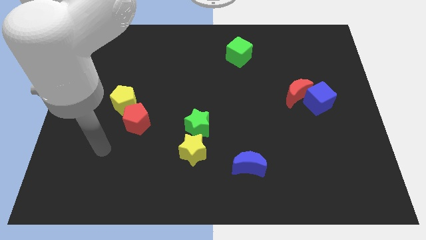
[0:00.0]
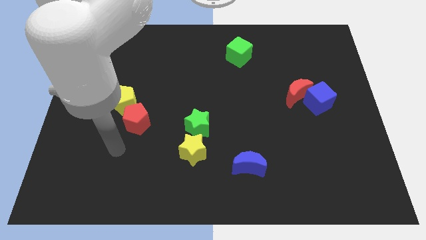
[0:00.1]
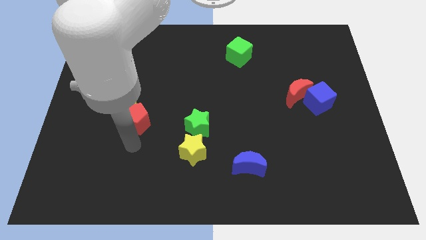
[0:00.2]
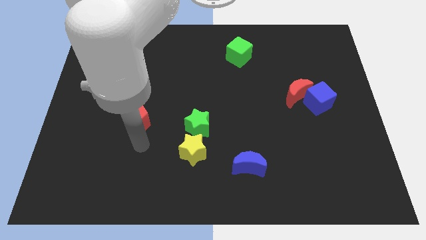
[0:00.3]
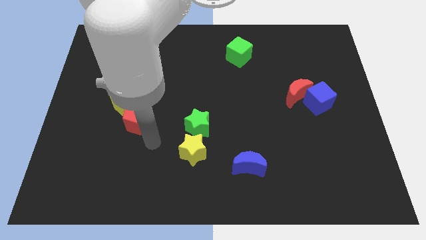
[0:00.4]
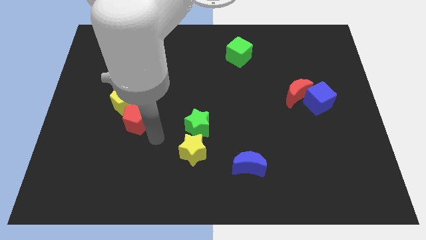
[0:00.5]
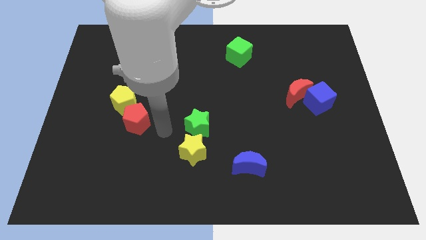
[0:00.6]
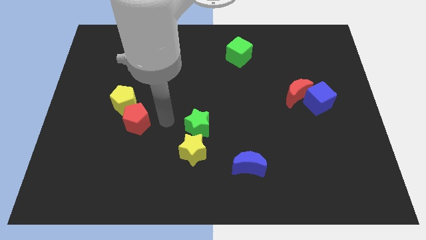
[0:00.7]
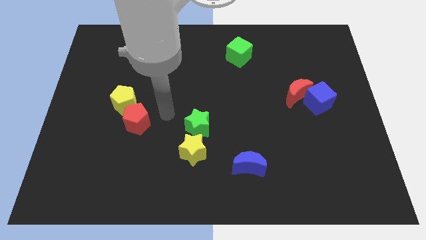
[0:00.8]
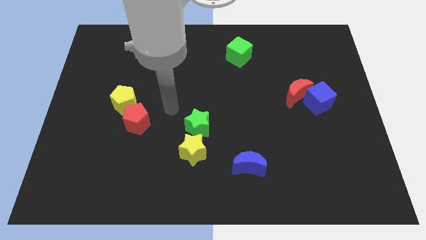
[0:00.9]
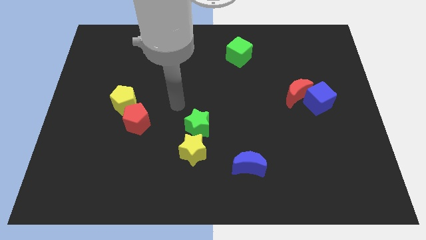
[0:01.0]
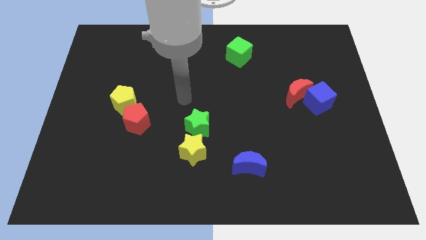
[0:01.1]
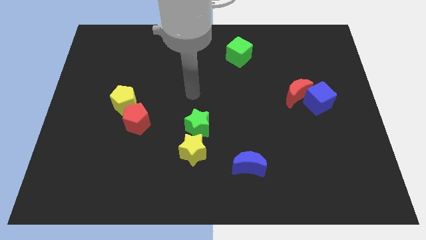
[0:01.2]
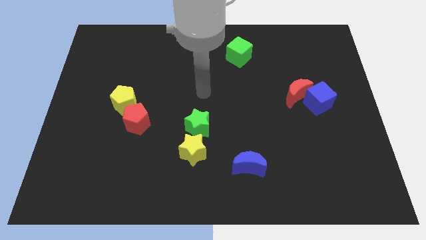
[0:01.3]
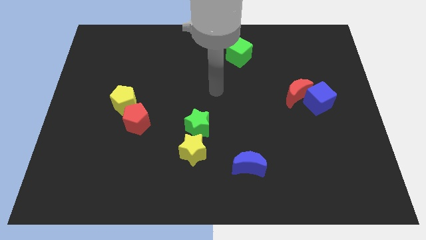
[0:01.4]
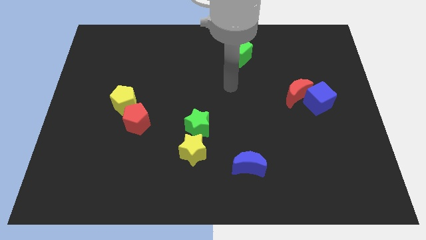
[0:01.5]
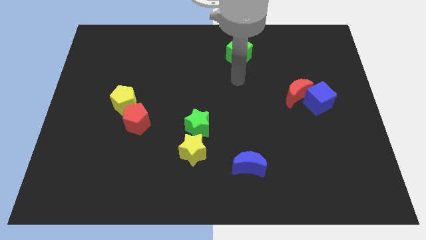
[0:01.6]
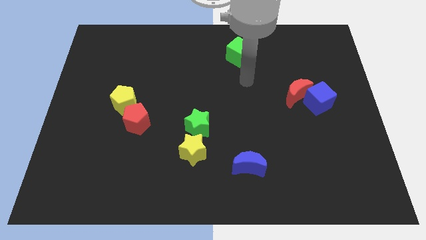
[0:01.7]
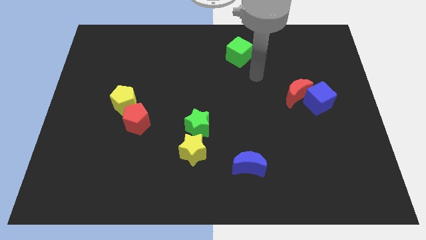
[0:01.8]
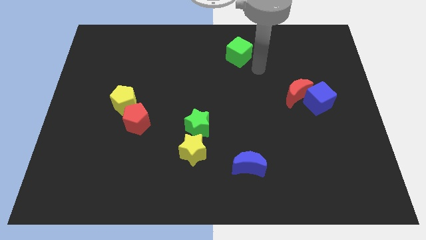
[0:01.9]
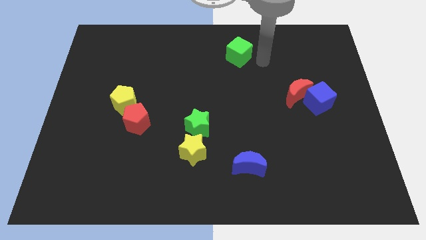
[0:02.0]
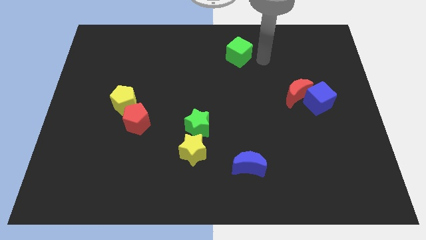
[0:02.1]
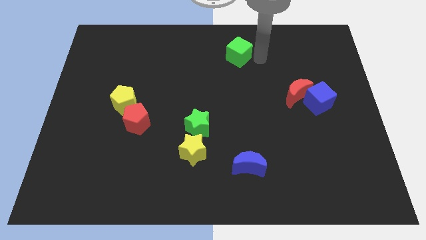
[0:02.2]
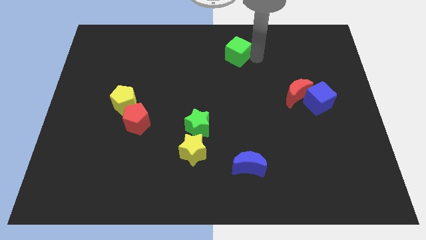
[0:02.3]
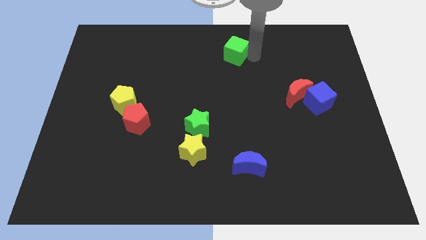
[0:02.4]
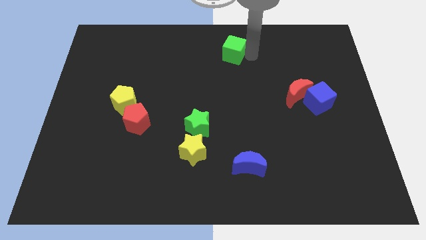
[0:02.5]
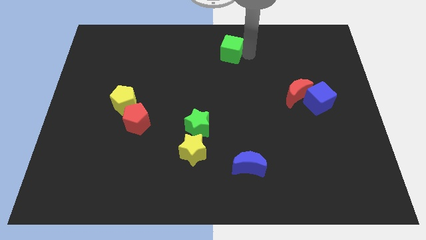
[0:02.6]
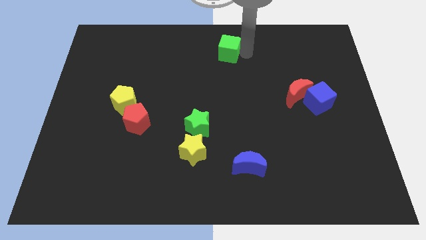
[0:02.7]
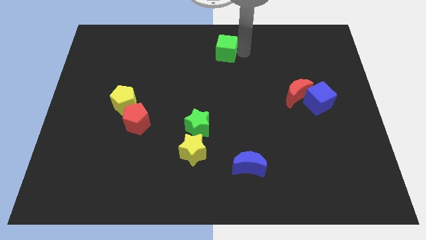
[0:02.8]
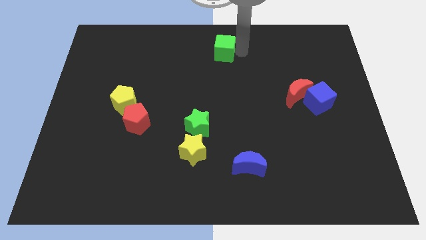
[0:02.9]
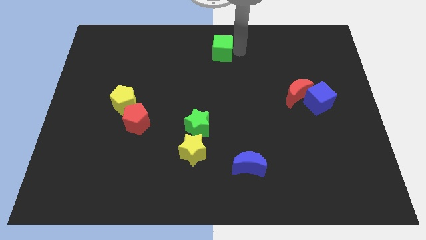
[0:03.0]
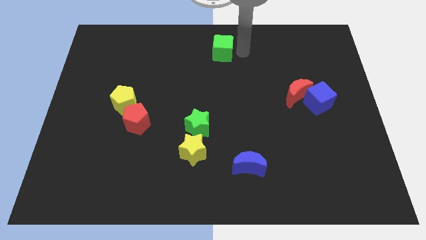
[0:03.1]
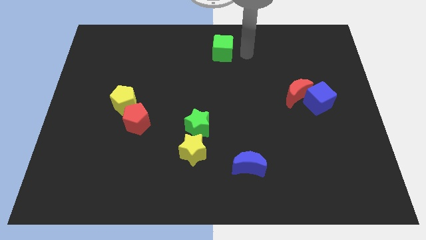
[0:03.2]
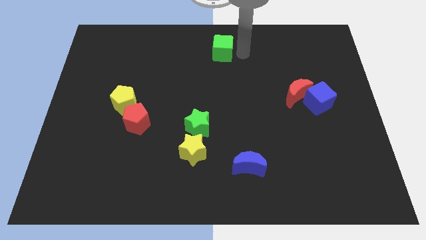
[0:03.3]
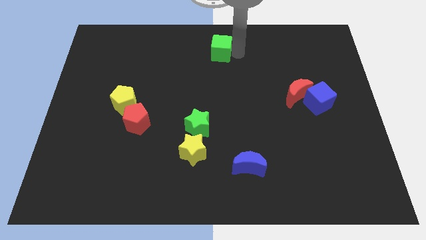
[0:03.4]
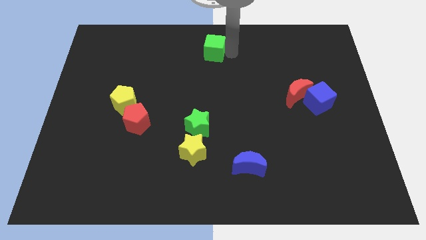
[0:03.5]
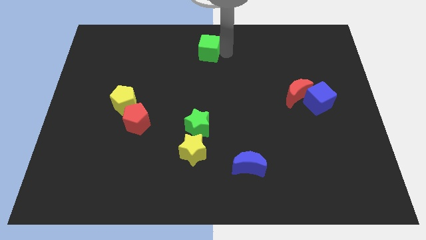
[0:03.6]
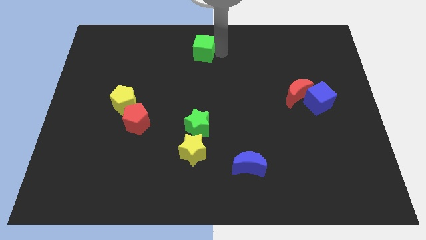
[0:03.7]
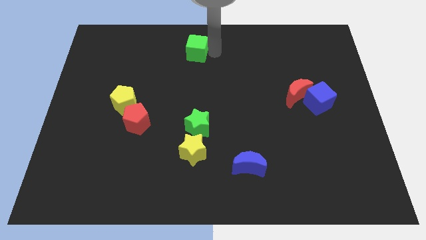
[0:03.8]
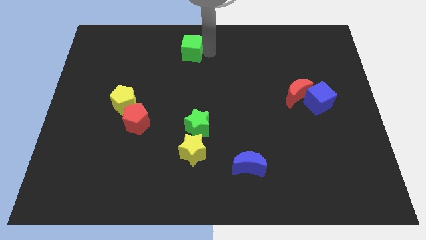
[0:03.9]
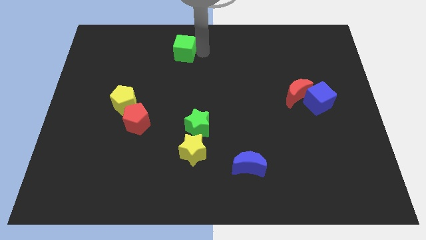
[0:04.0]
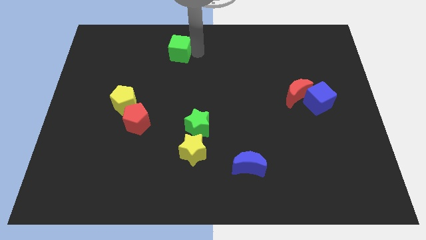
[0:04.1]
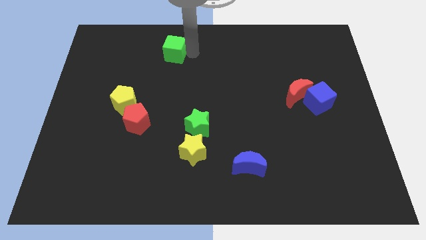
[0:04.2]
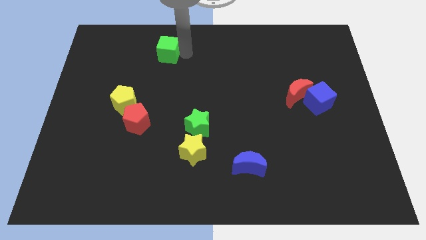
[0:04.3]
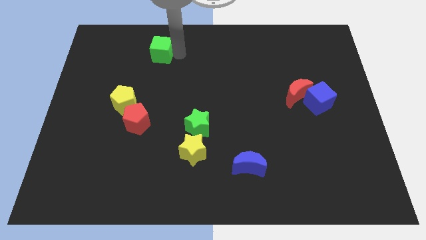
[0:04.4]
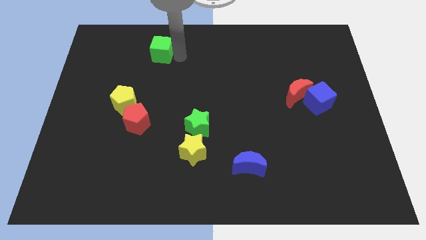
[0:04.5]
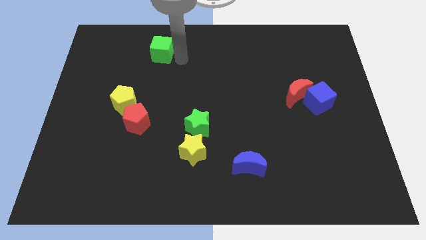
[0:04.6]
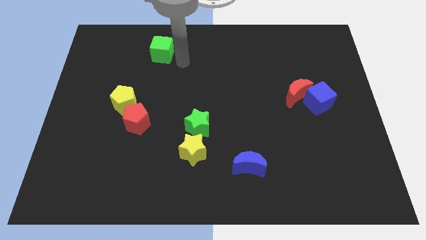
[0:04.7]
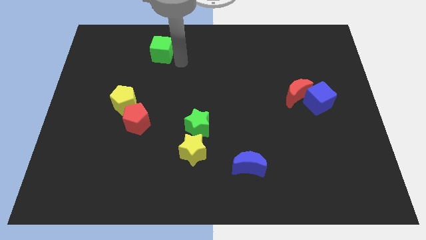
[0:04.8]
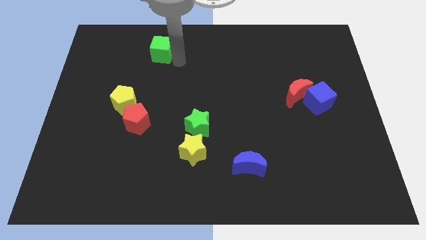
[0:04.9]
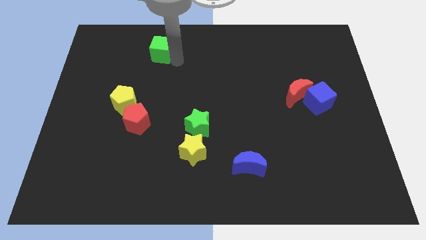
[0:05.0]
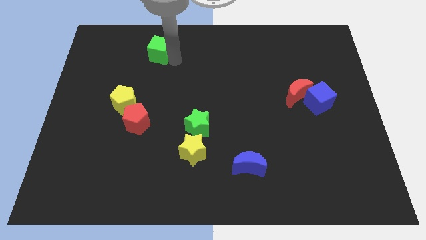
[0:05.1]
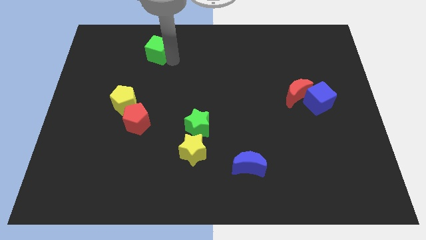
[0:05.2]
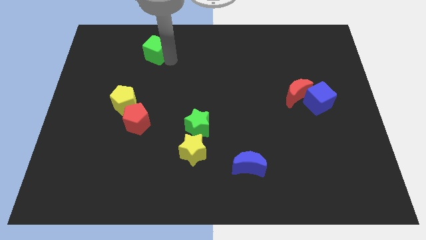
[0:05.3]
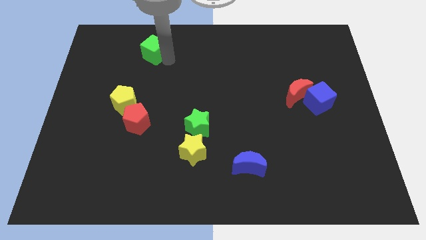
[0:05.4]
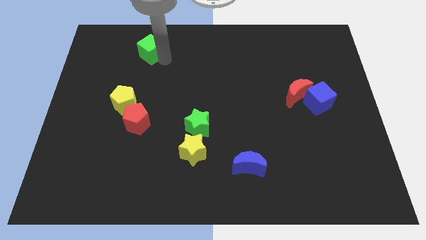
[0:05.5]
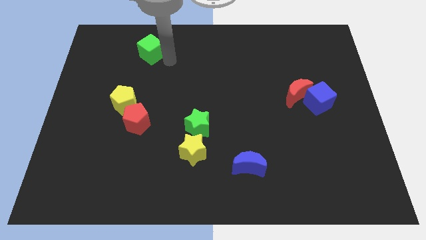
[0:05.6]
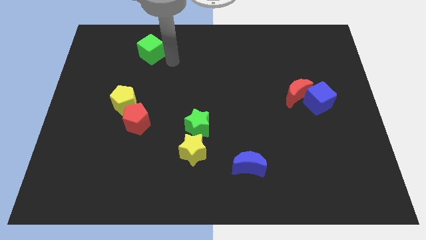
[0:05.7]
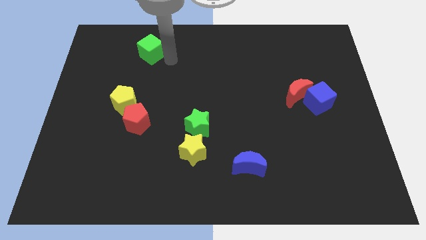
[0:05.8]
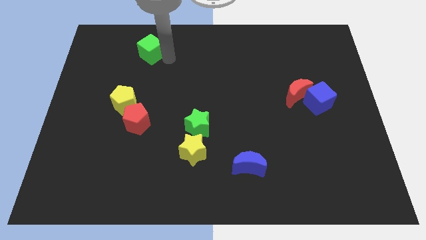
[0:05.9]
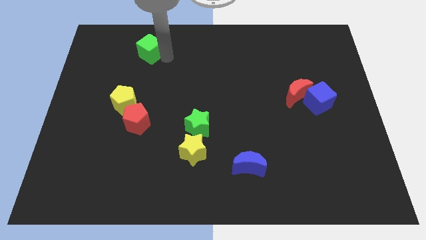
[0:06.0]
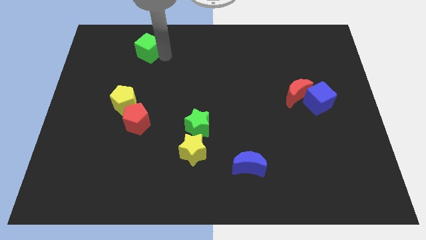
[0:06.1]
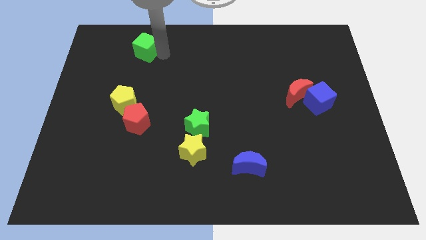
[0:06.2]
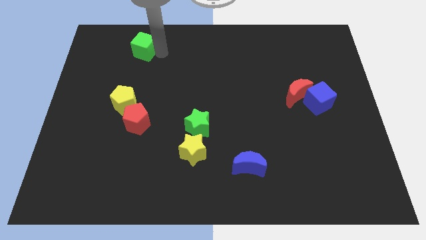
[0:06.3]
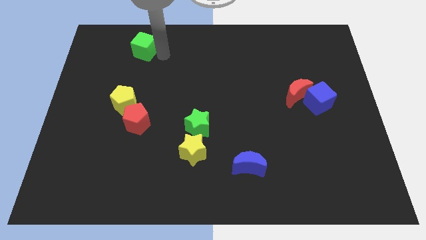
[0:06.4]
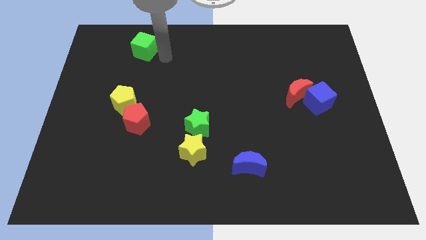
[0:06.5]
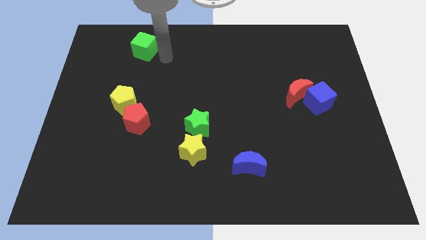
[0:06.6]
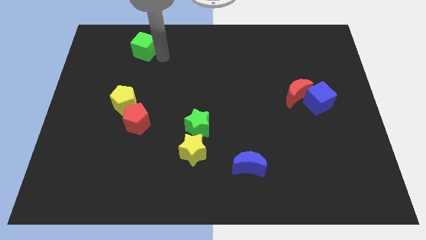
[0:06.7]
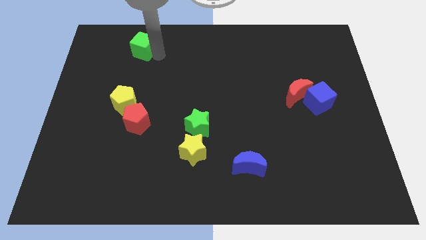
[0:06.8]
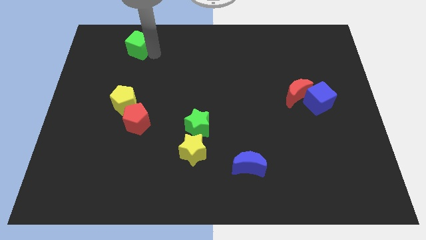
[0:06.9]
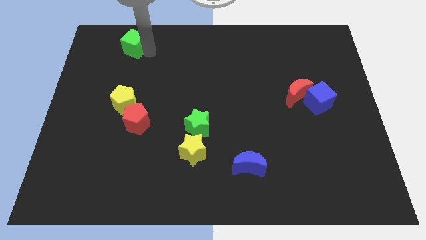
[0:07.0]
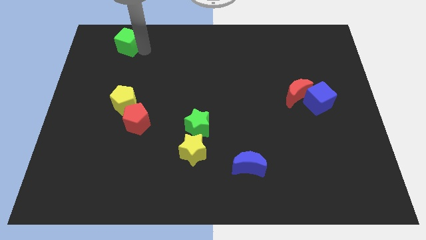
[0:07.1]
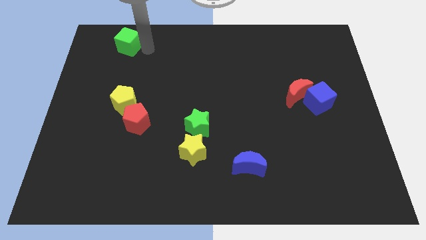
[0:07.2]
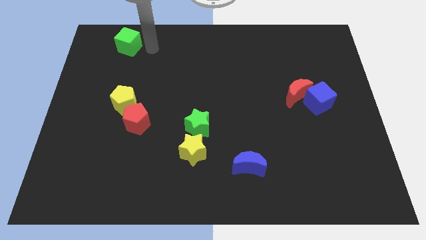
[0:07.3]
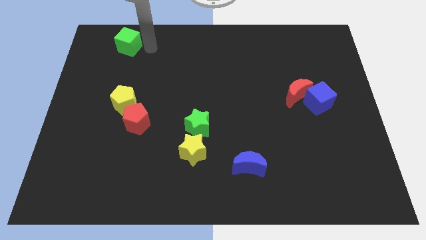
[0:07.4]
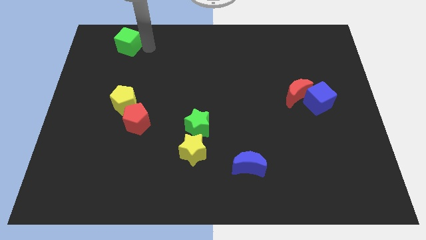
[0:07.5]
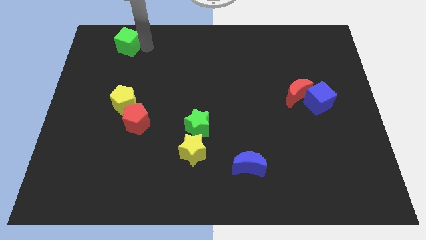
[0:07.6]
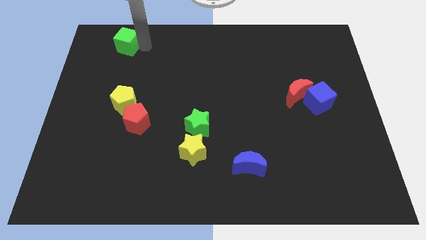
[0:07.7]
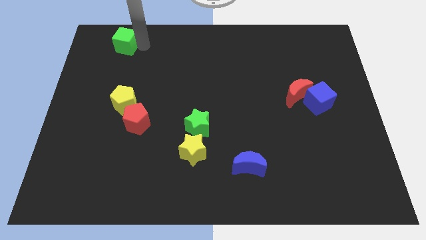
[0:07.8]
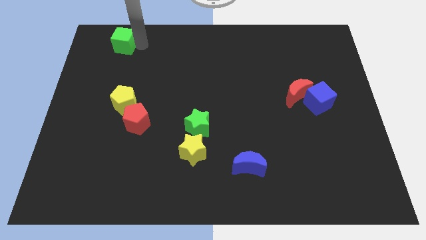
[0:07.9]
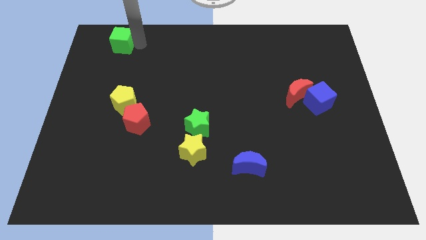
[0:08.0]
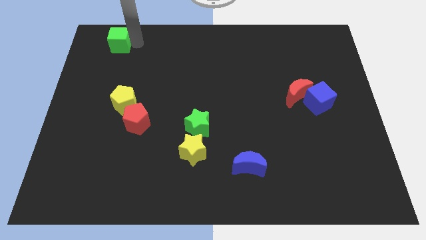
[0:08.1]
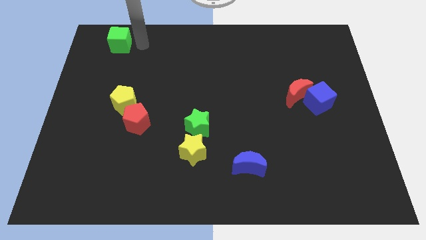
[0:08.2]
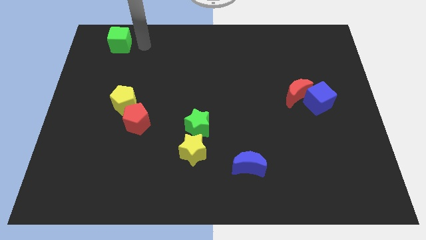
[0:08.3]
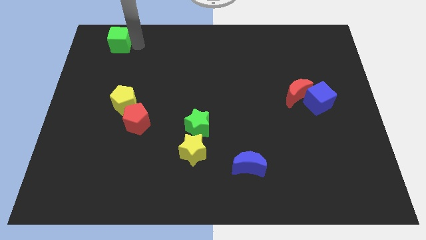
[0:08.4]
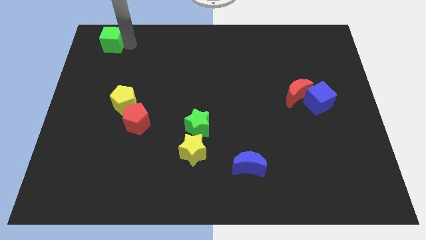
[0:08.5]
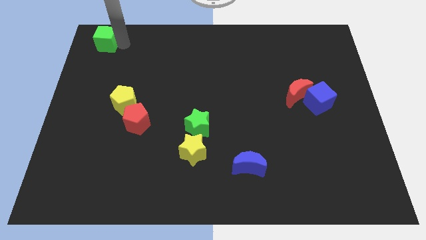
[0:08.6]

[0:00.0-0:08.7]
push the green cube to the top left
